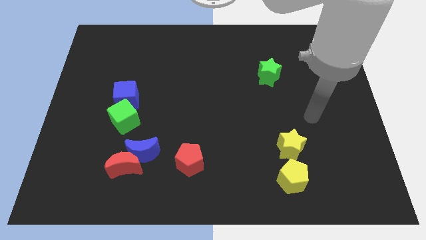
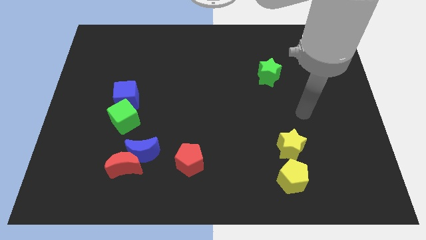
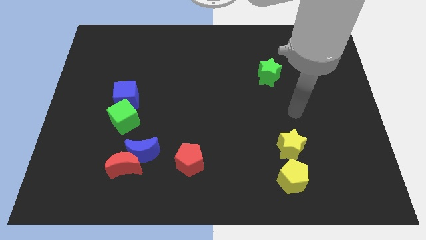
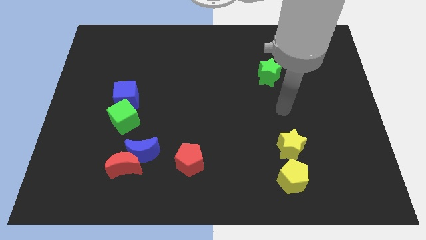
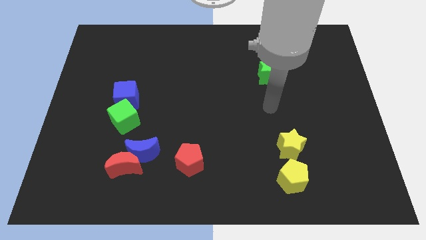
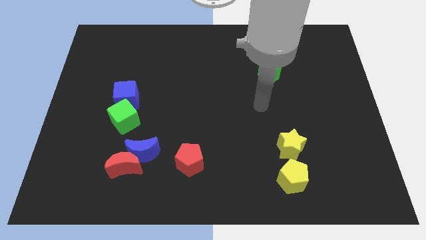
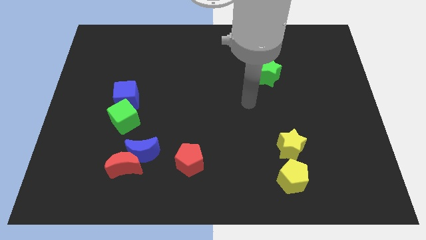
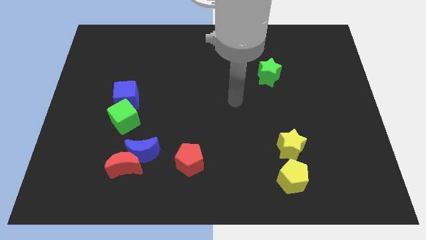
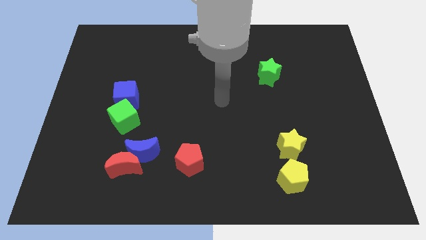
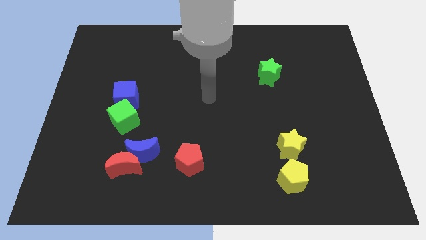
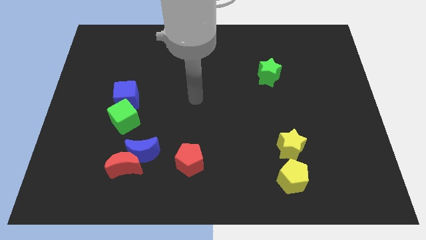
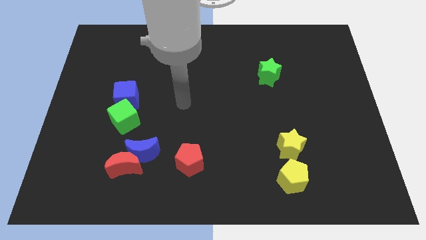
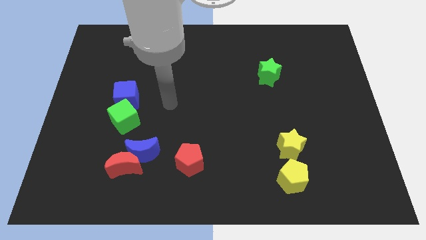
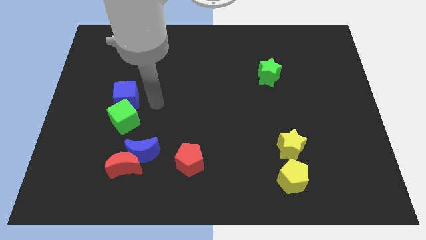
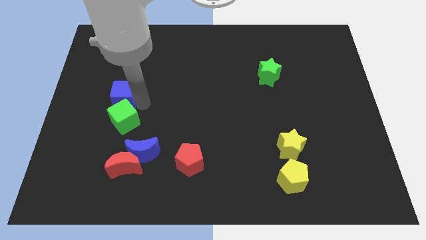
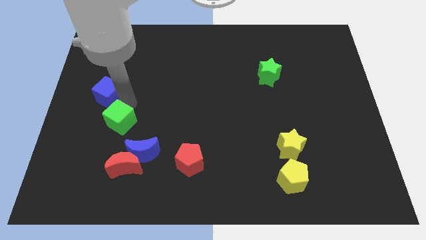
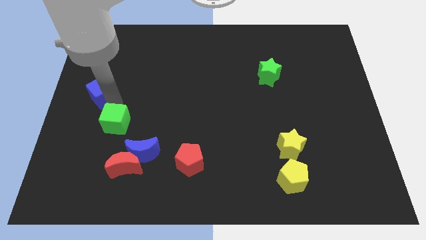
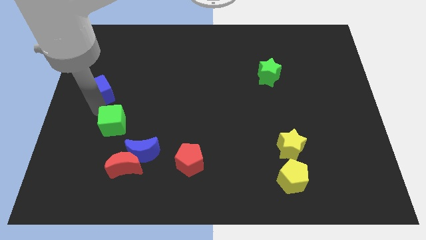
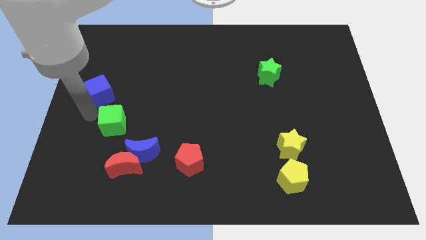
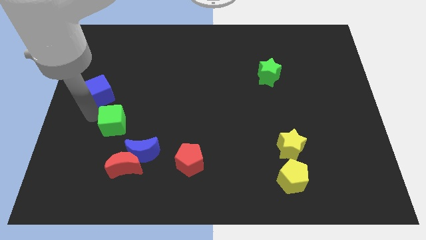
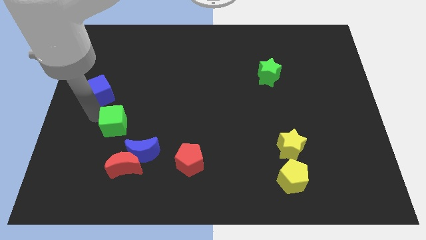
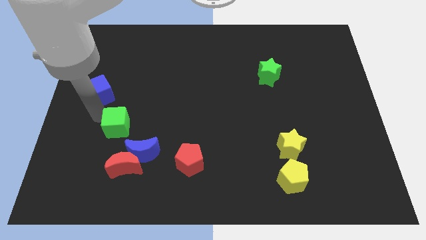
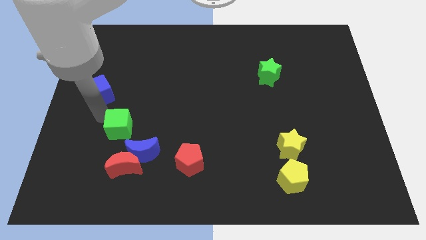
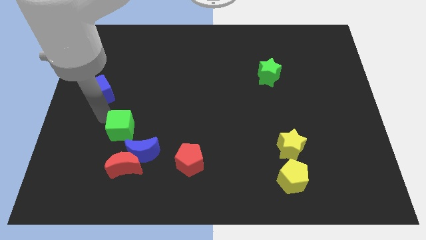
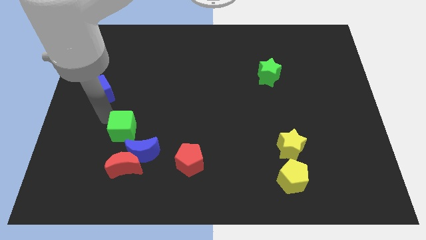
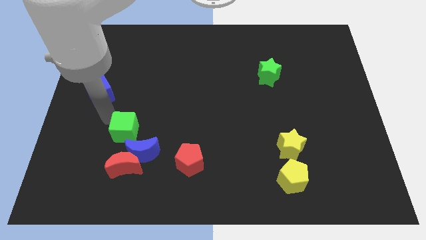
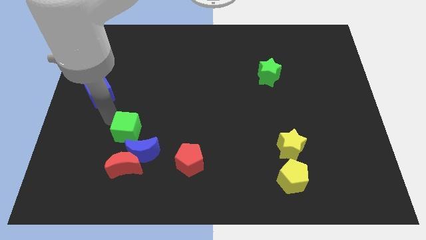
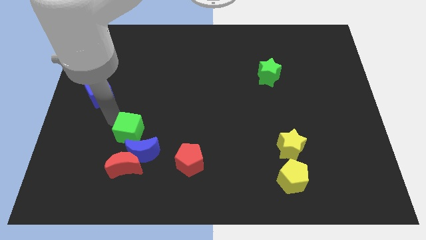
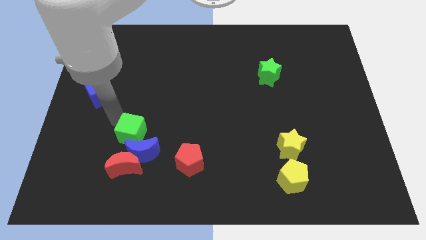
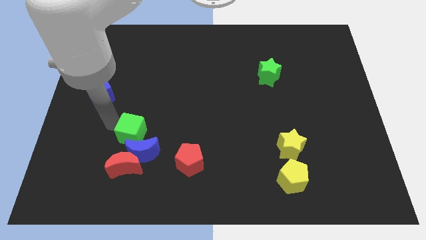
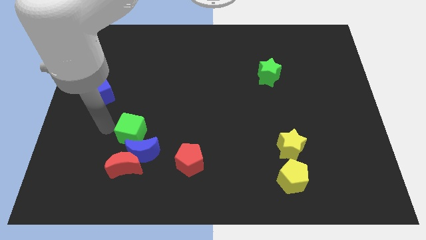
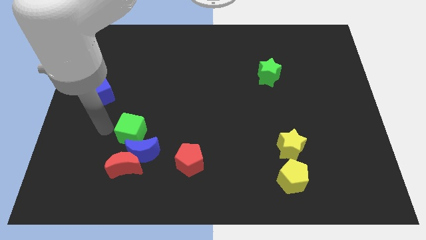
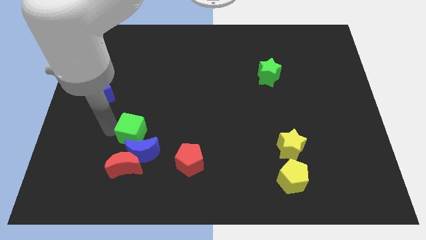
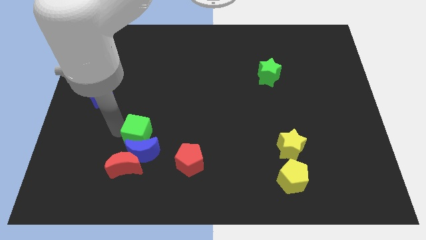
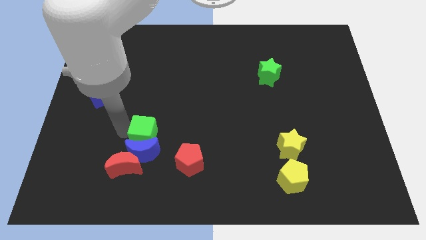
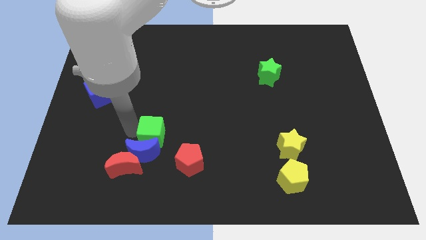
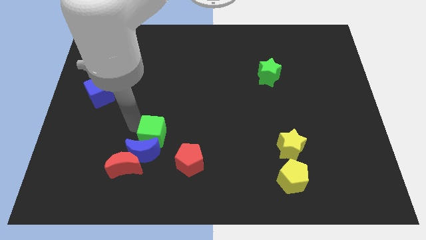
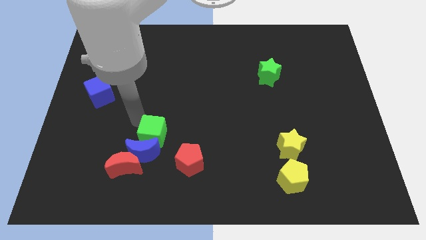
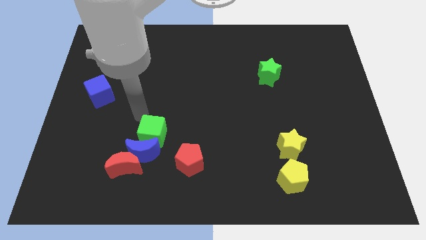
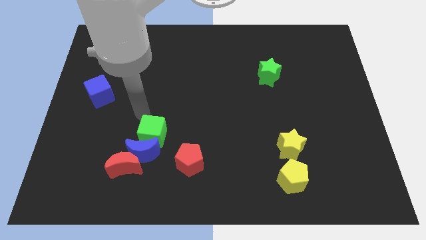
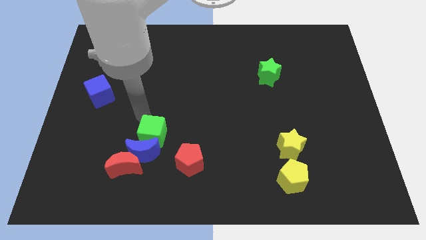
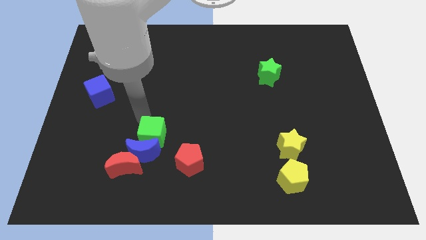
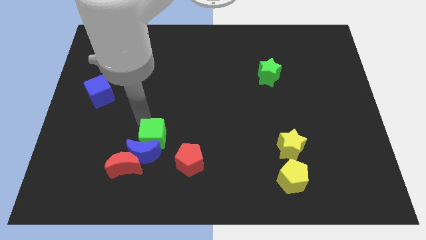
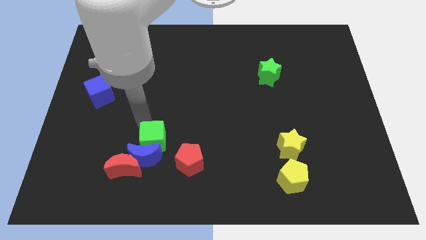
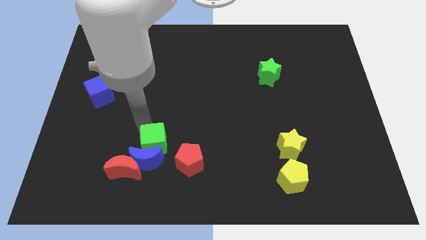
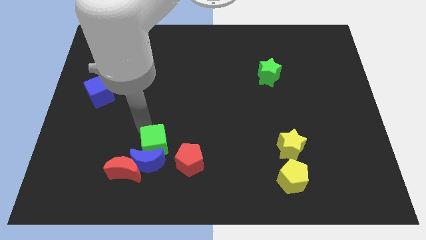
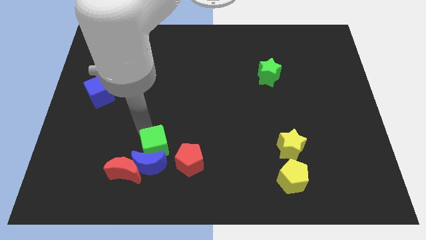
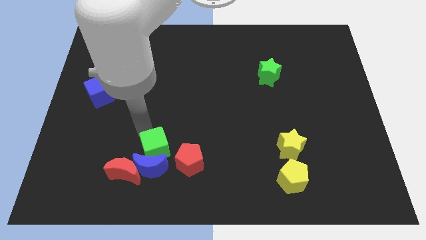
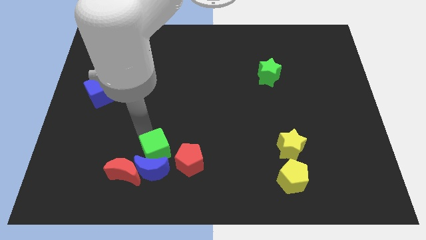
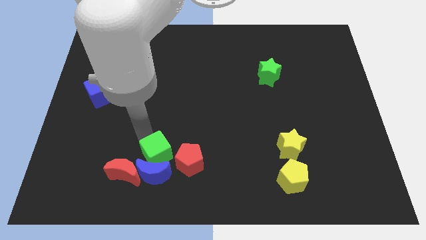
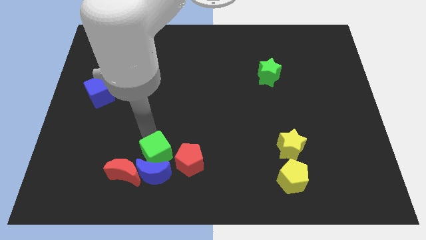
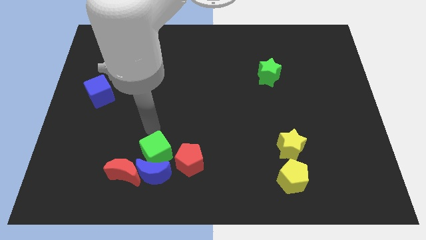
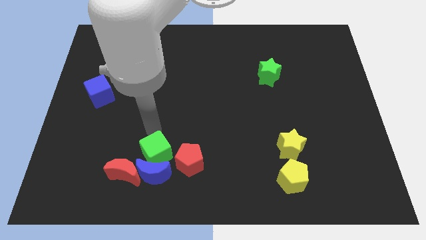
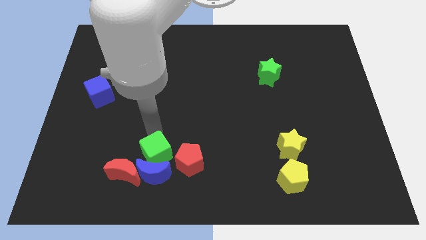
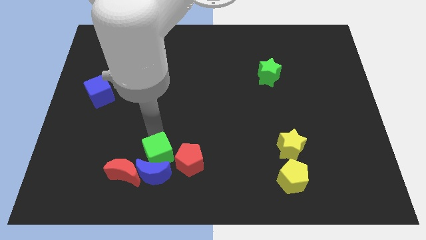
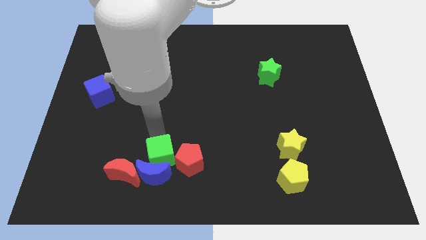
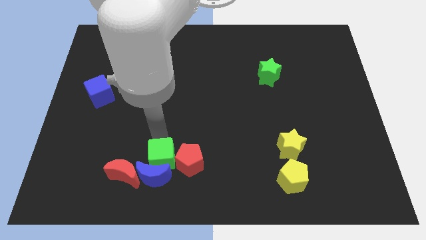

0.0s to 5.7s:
slide the green cube diagonally down and to the left of the red pentagon

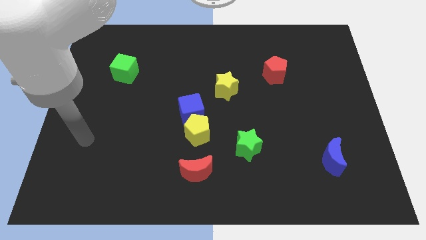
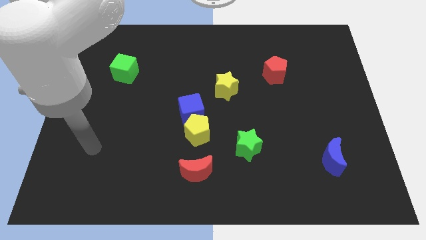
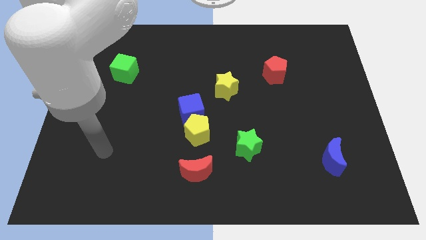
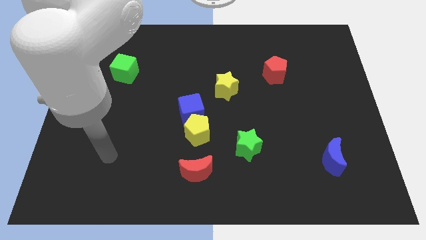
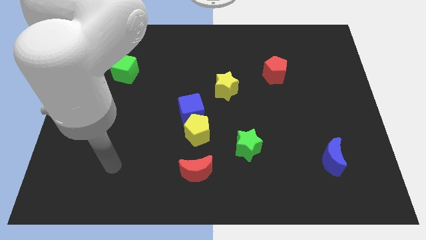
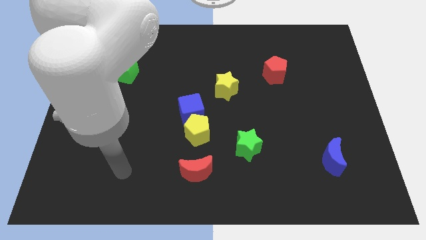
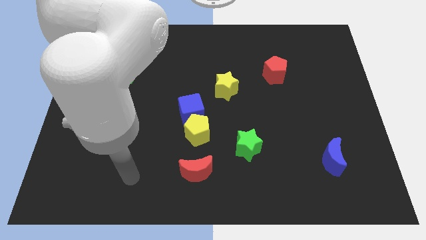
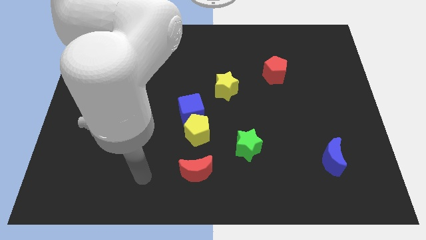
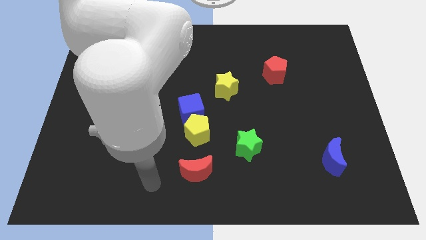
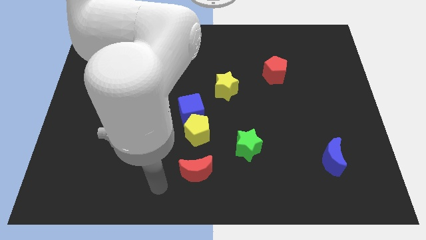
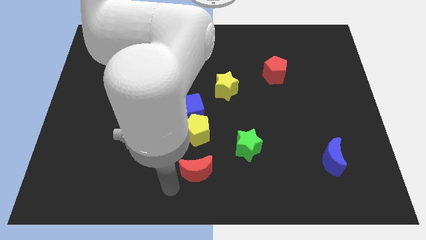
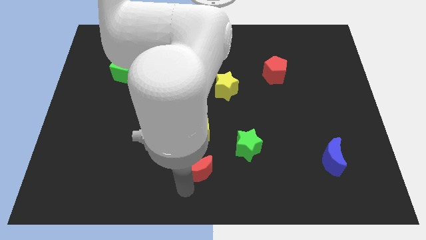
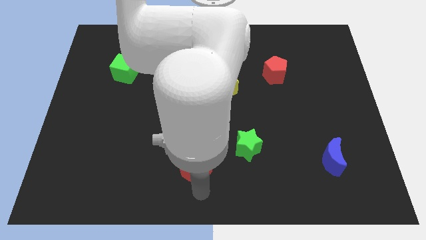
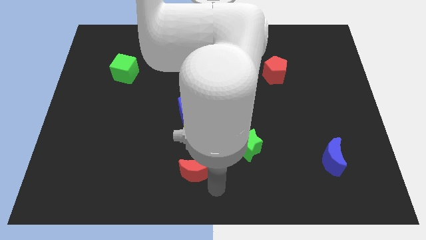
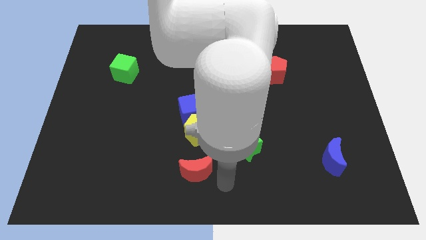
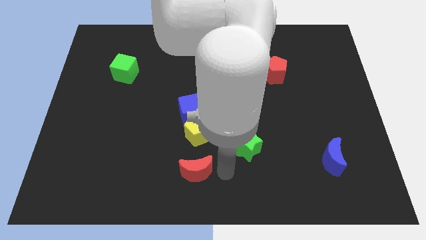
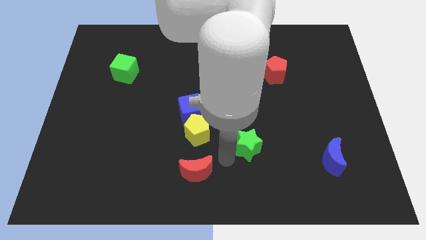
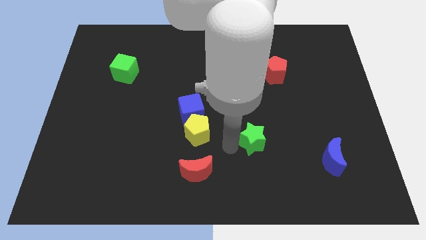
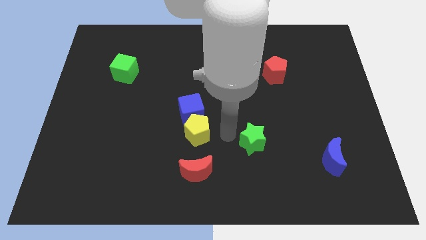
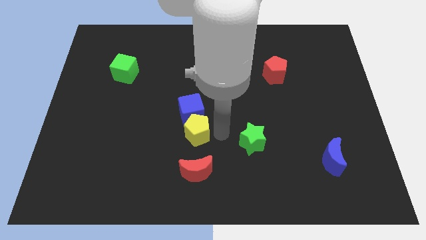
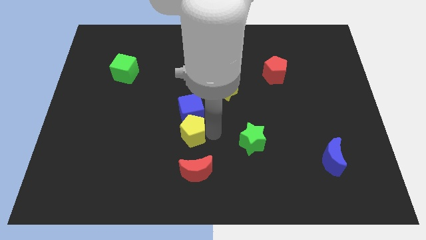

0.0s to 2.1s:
slide the yellow pentagon to the bottom left side of the blue cube
